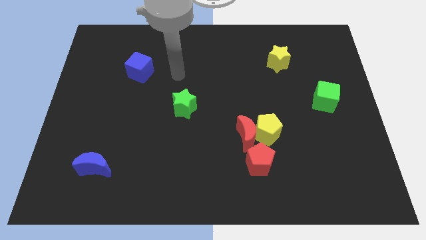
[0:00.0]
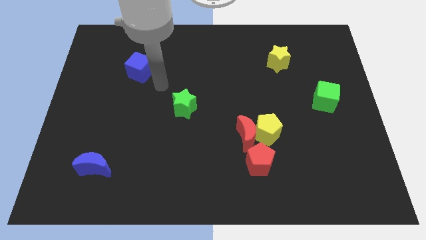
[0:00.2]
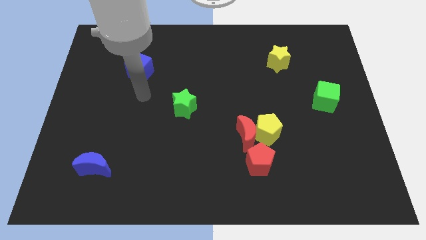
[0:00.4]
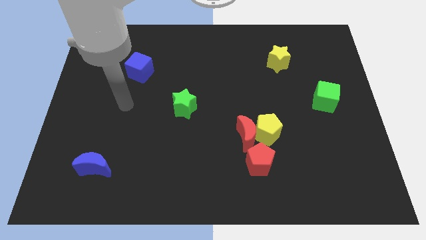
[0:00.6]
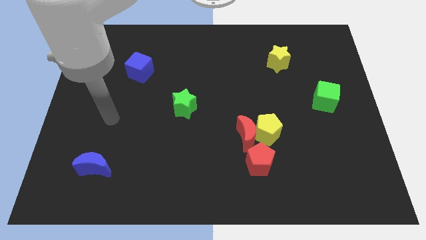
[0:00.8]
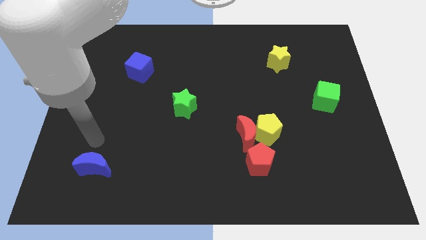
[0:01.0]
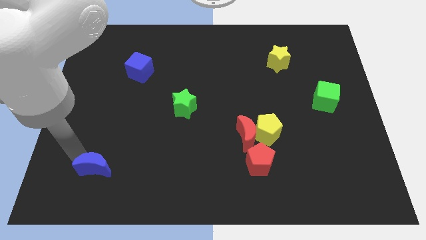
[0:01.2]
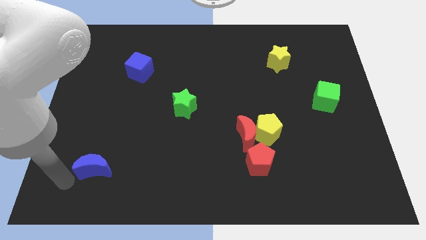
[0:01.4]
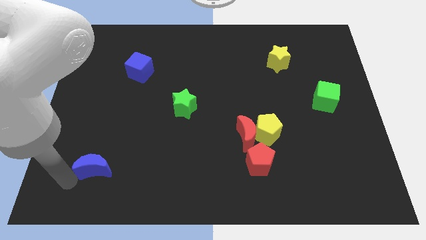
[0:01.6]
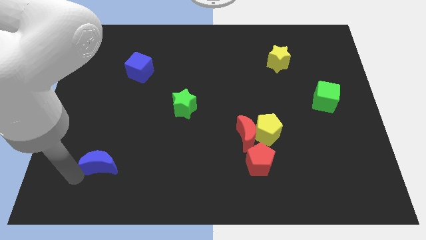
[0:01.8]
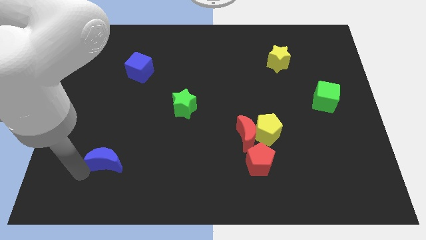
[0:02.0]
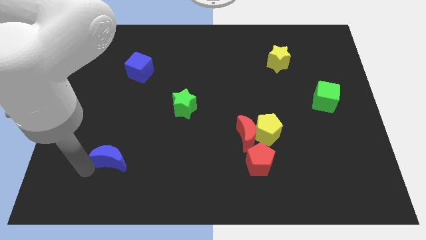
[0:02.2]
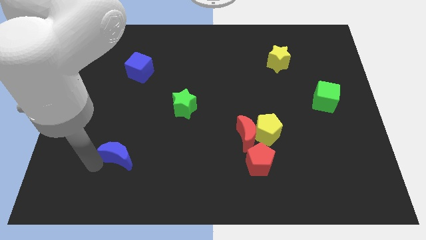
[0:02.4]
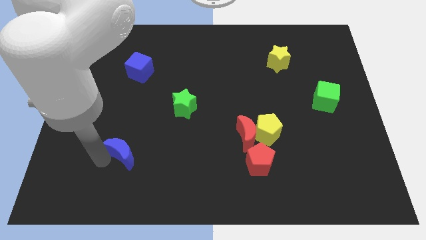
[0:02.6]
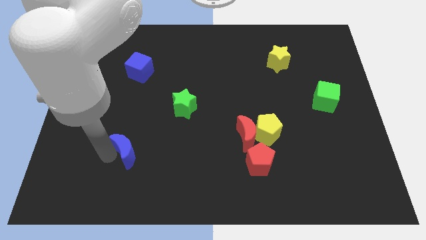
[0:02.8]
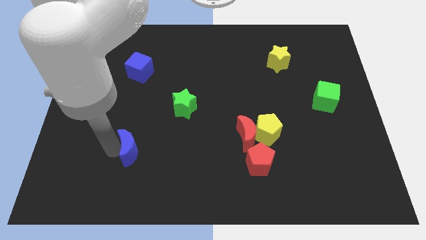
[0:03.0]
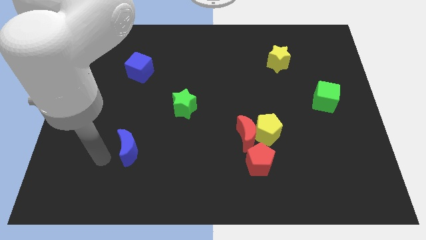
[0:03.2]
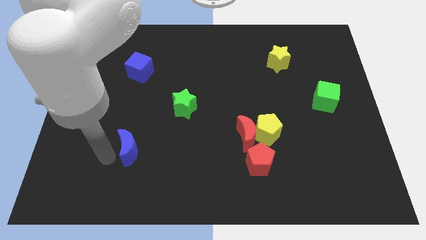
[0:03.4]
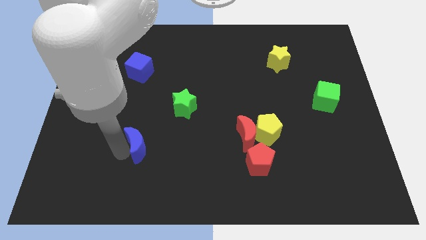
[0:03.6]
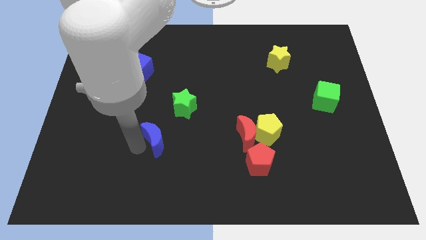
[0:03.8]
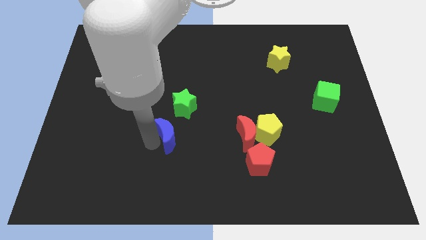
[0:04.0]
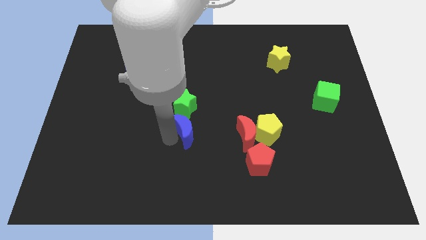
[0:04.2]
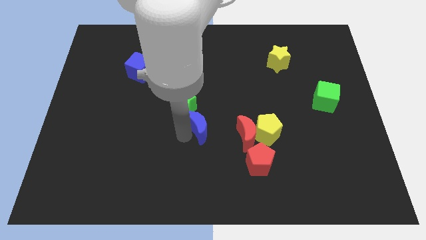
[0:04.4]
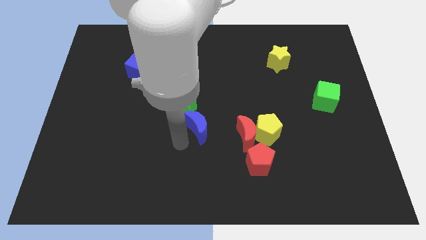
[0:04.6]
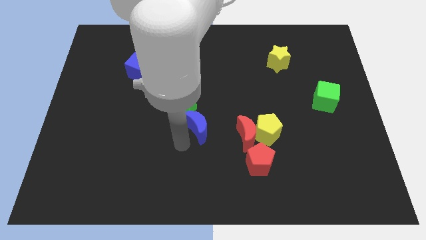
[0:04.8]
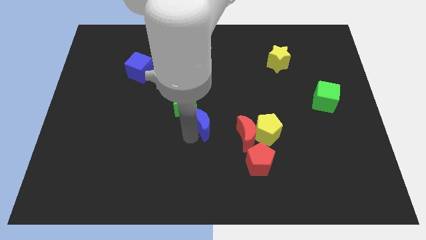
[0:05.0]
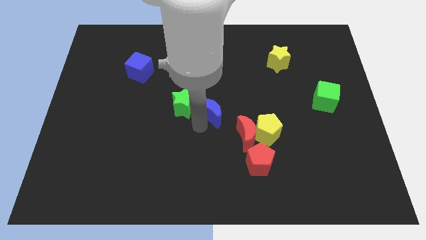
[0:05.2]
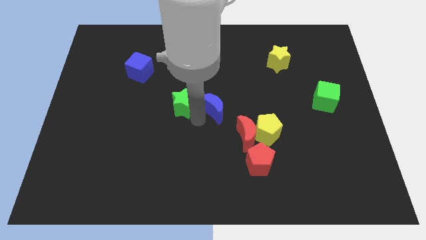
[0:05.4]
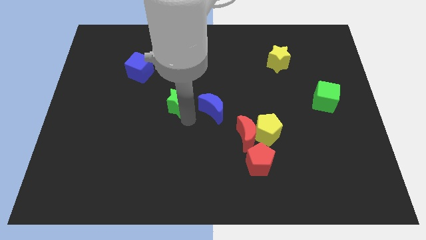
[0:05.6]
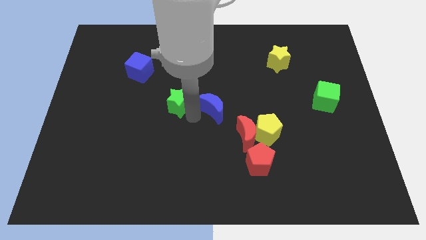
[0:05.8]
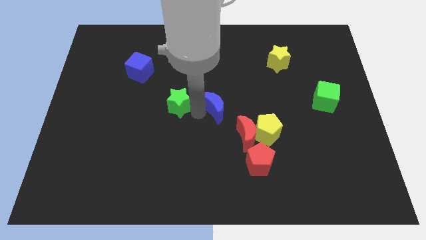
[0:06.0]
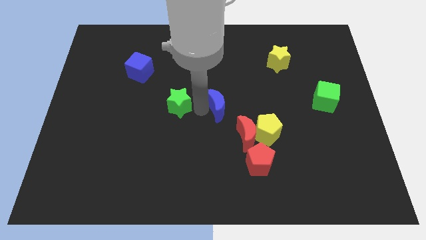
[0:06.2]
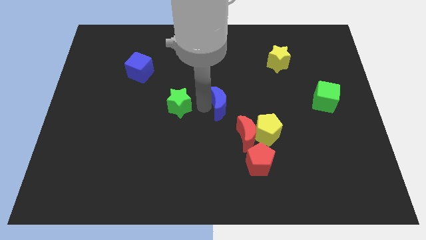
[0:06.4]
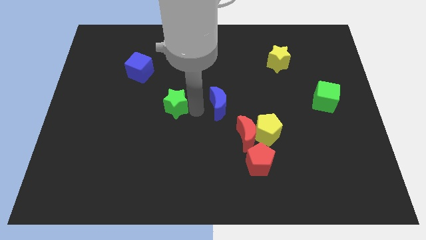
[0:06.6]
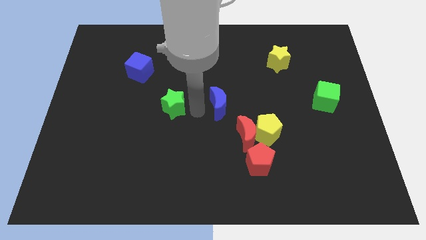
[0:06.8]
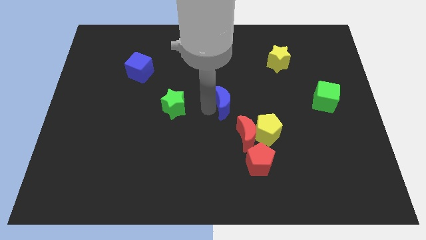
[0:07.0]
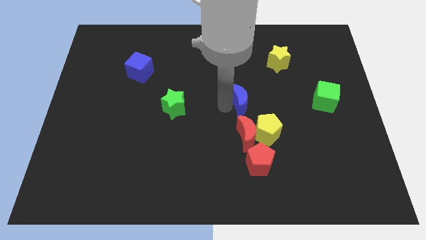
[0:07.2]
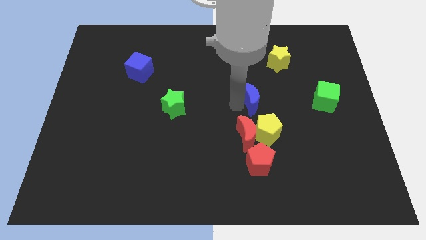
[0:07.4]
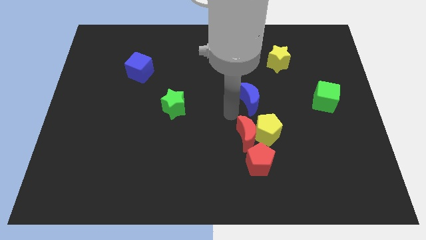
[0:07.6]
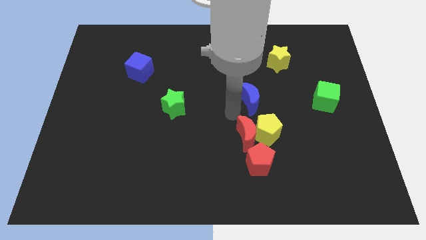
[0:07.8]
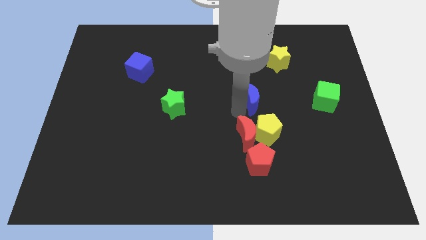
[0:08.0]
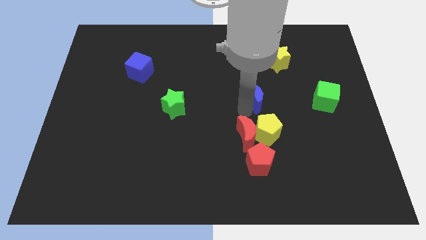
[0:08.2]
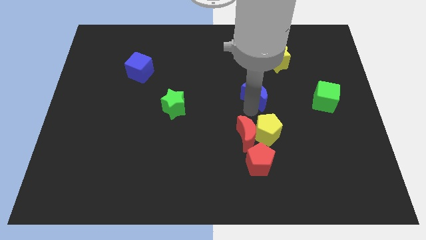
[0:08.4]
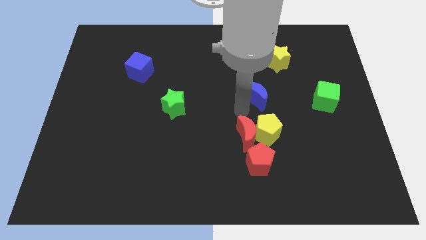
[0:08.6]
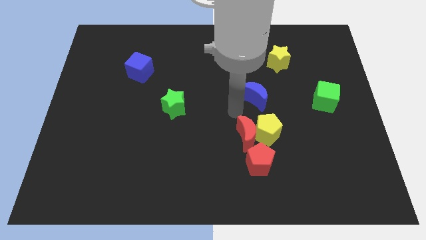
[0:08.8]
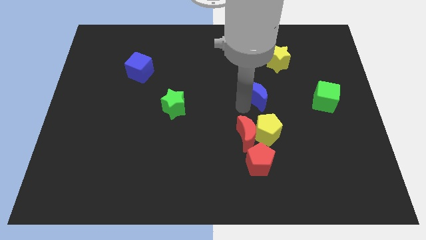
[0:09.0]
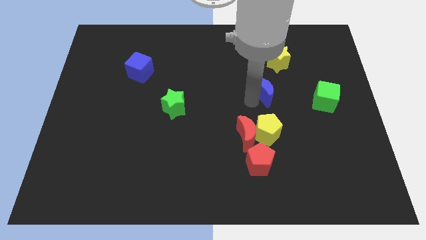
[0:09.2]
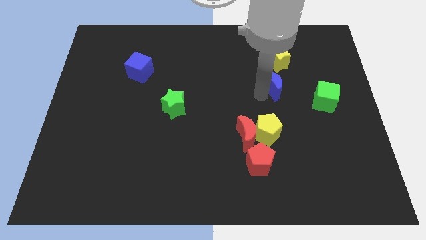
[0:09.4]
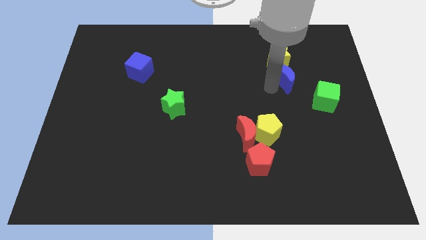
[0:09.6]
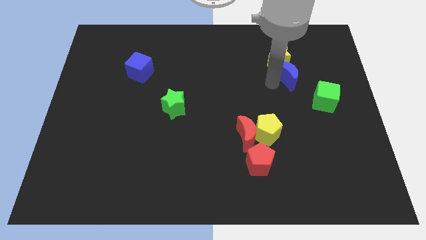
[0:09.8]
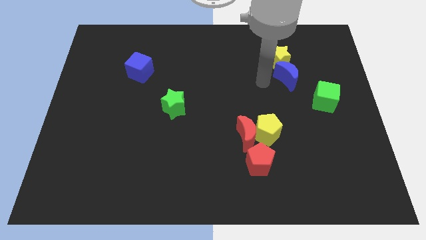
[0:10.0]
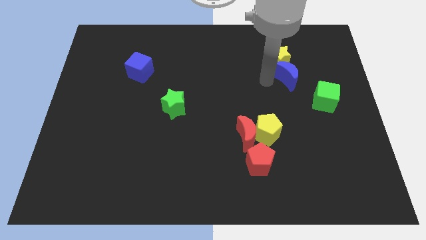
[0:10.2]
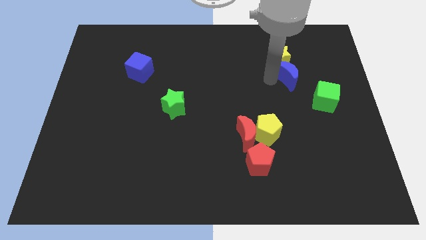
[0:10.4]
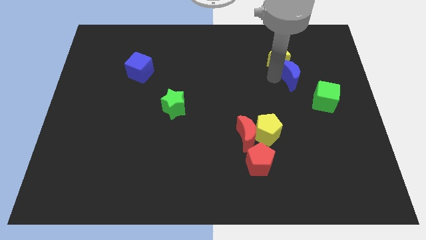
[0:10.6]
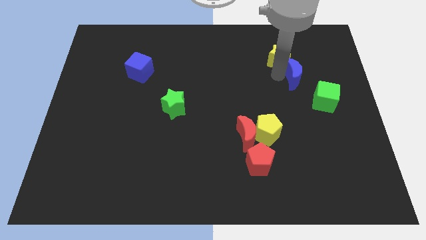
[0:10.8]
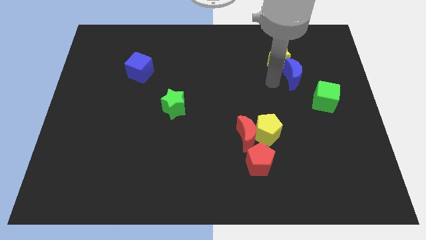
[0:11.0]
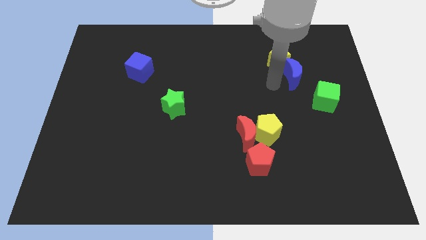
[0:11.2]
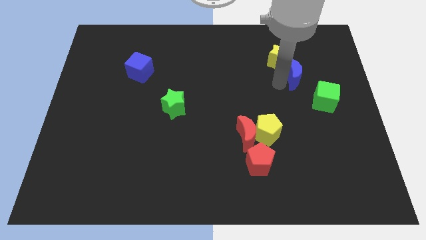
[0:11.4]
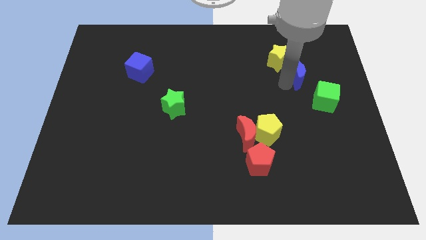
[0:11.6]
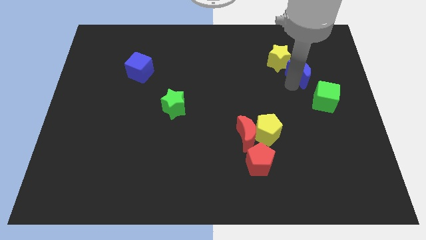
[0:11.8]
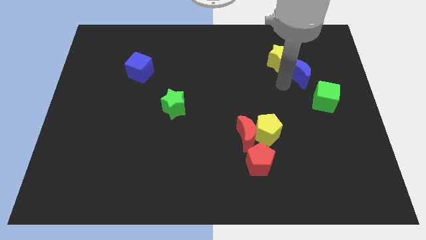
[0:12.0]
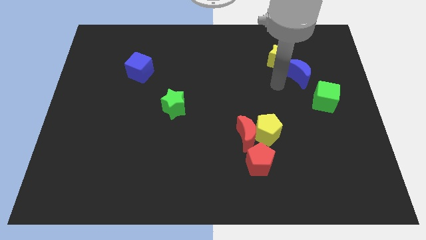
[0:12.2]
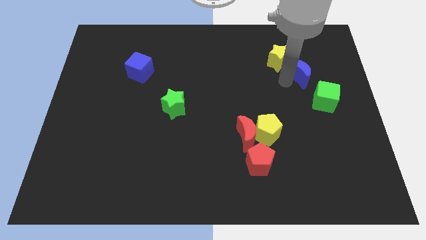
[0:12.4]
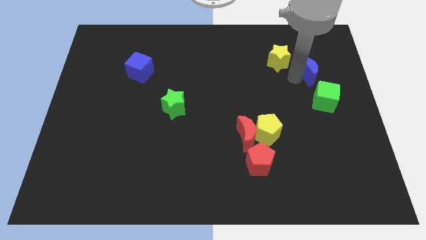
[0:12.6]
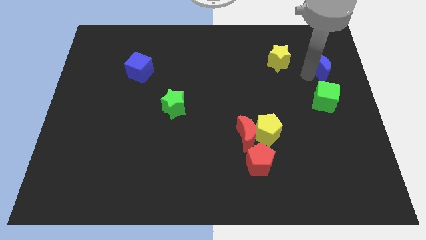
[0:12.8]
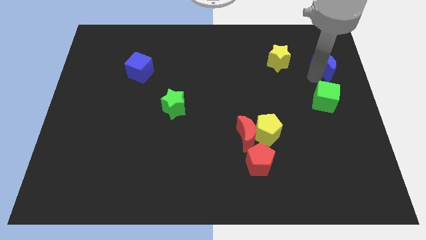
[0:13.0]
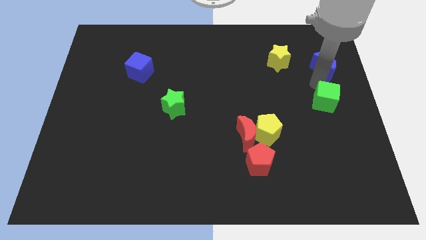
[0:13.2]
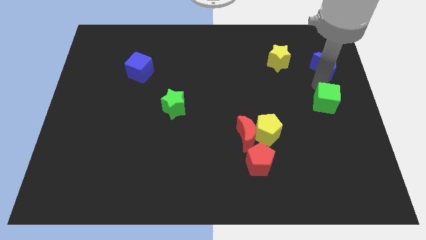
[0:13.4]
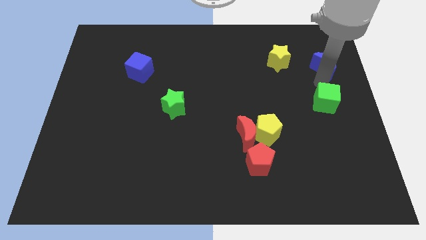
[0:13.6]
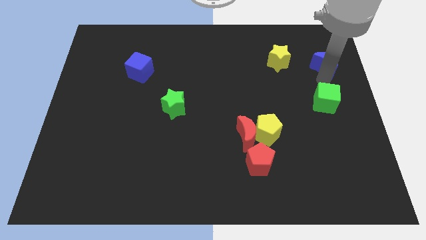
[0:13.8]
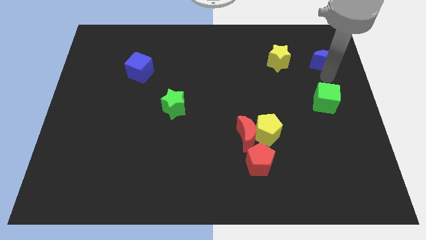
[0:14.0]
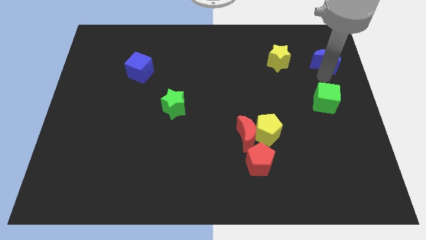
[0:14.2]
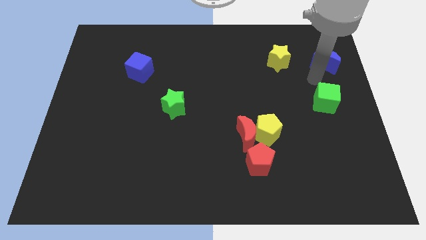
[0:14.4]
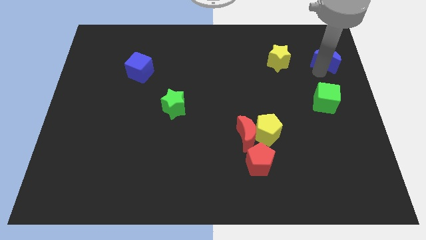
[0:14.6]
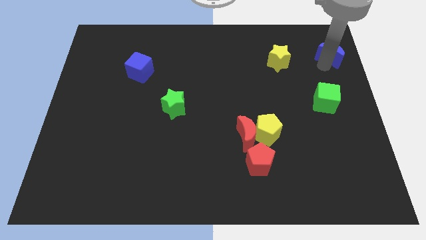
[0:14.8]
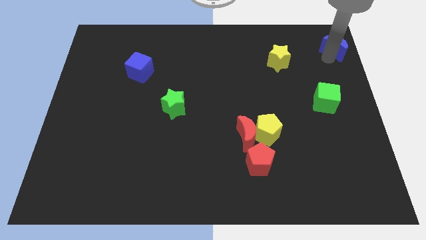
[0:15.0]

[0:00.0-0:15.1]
move the blue moon to the top right
